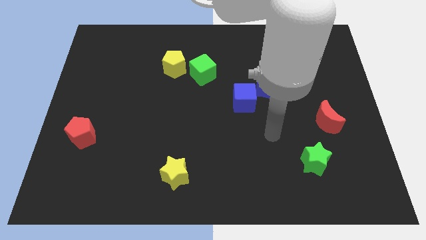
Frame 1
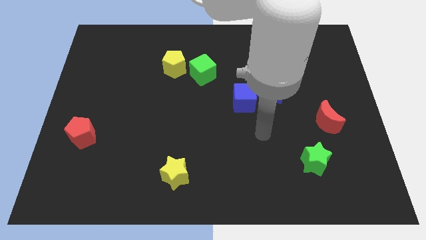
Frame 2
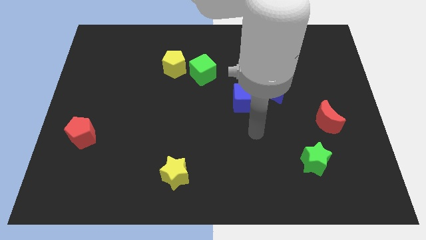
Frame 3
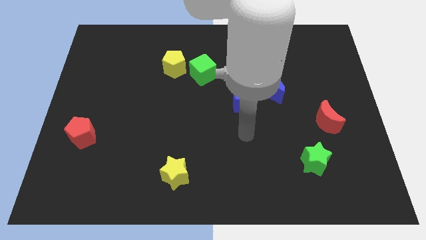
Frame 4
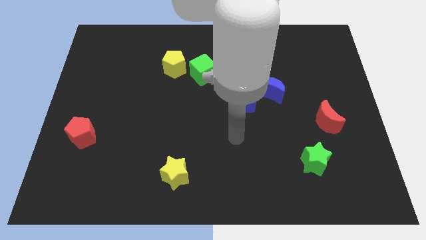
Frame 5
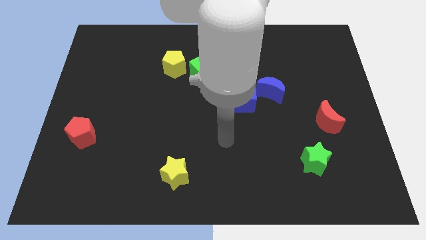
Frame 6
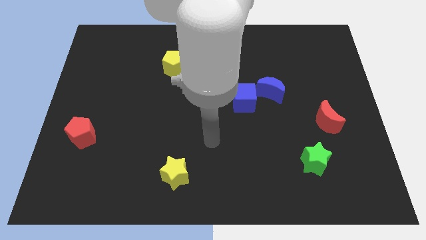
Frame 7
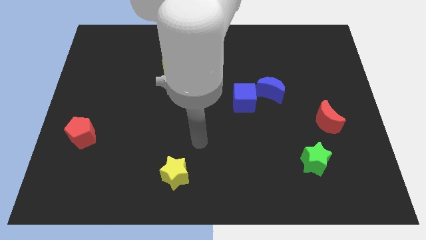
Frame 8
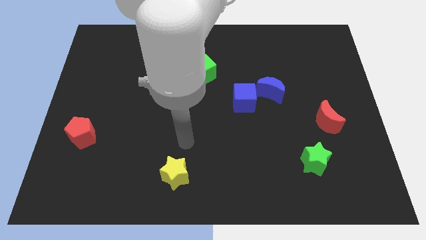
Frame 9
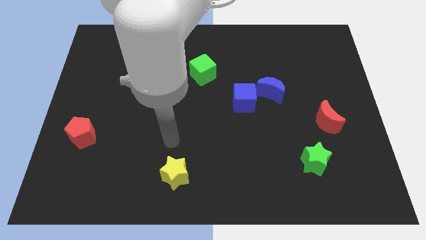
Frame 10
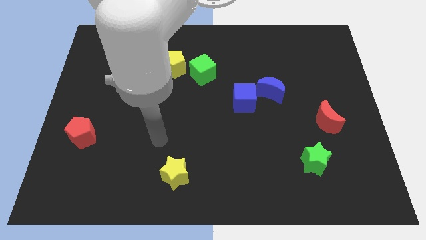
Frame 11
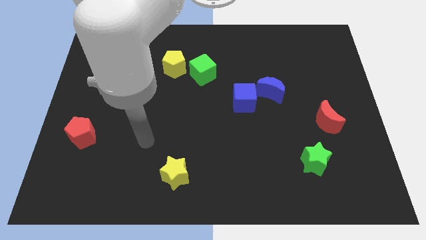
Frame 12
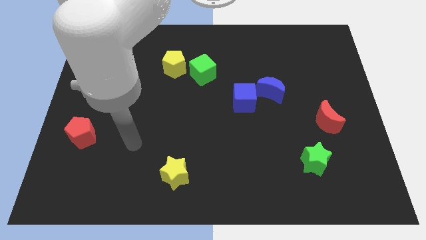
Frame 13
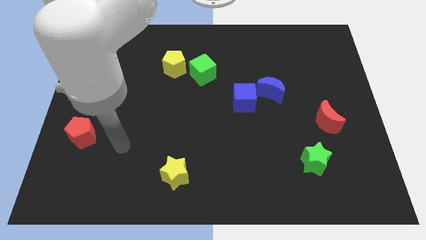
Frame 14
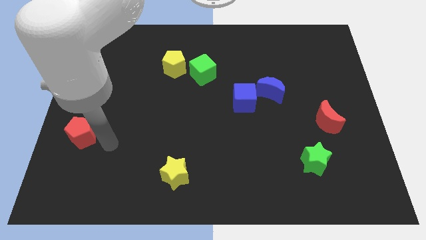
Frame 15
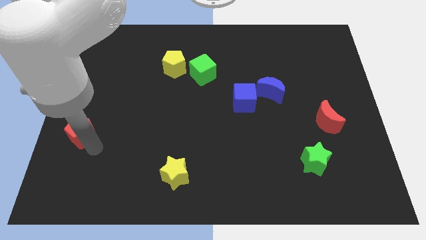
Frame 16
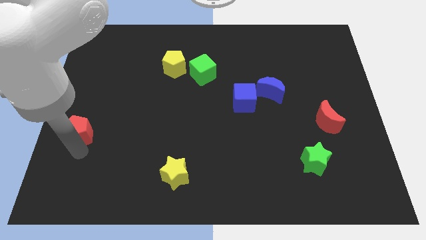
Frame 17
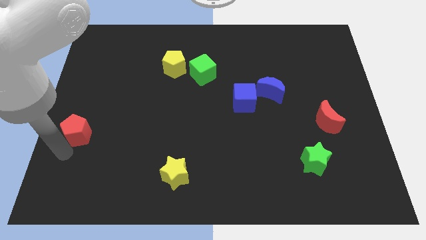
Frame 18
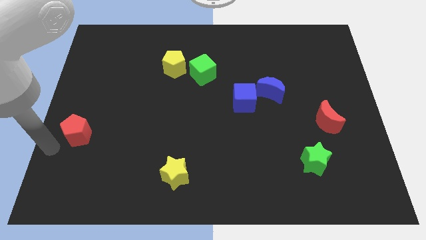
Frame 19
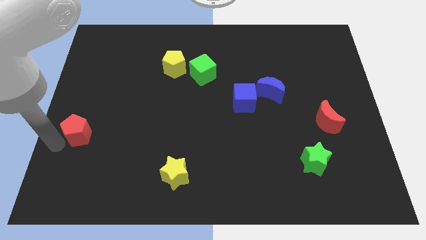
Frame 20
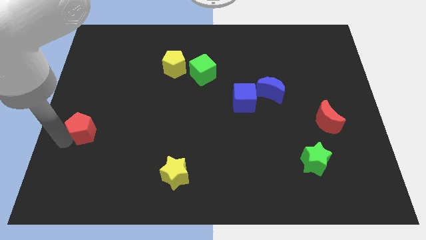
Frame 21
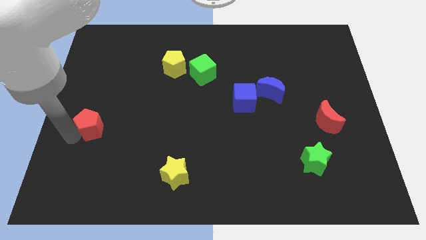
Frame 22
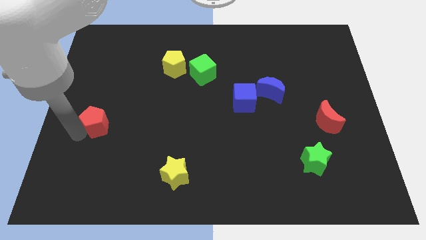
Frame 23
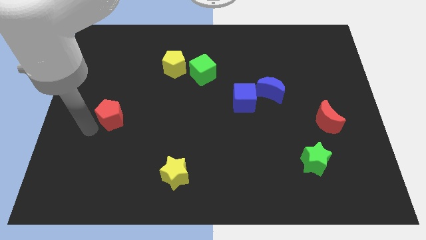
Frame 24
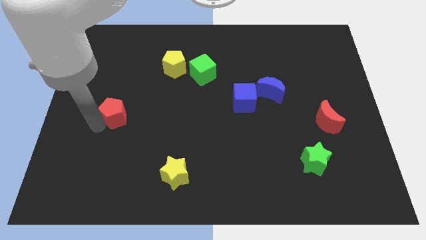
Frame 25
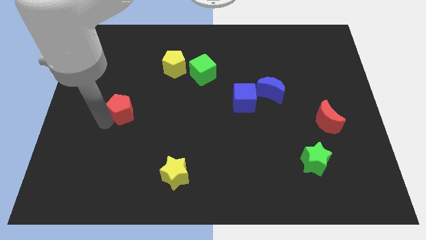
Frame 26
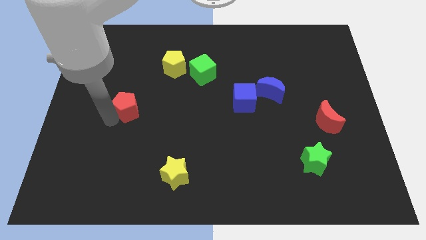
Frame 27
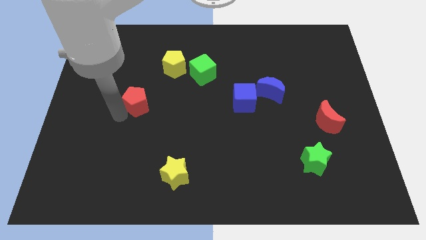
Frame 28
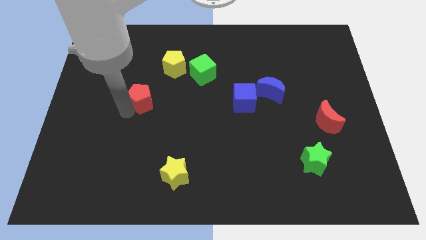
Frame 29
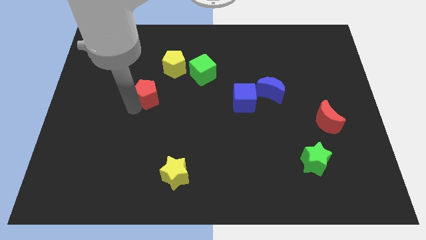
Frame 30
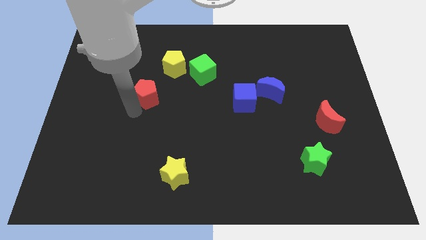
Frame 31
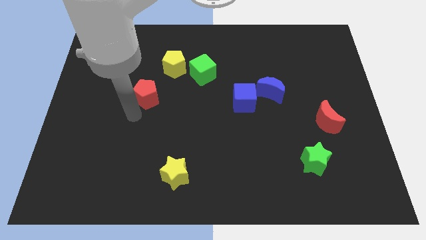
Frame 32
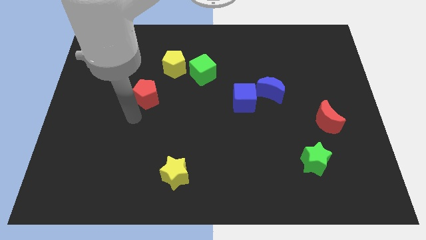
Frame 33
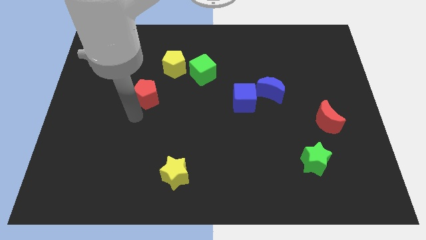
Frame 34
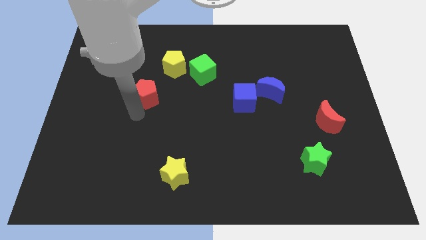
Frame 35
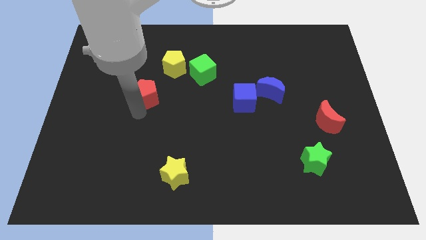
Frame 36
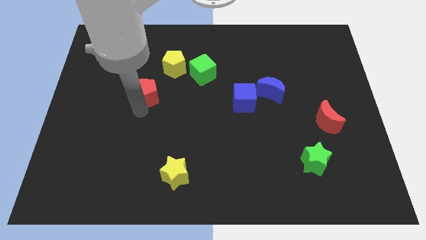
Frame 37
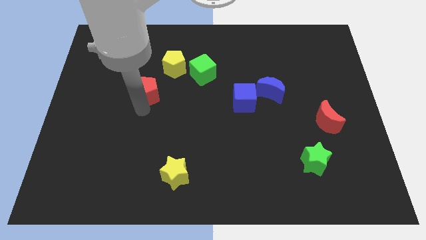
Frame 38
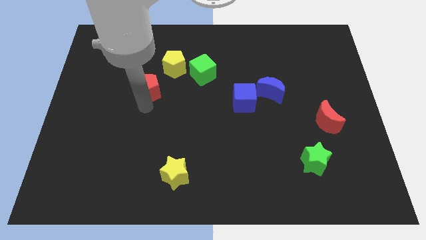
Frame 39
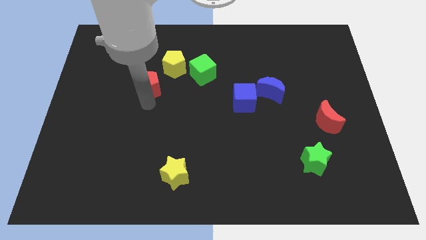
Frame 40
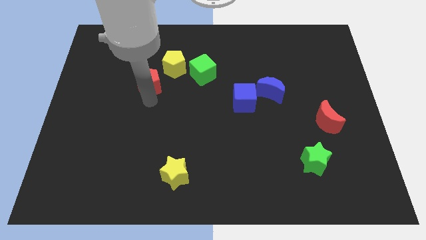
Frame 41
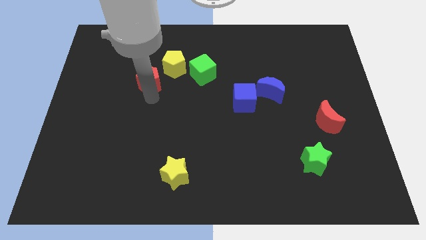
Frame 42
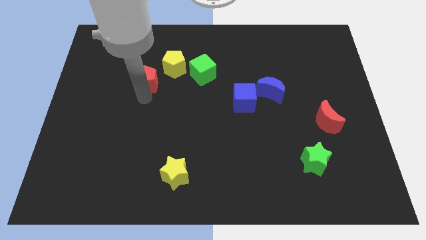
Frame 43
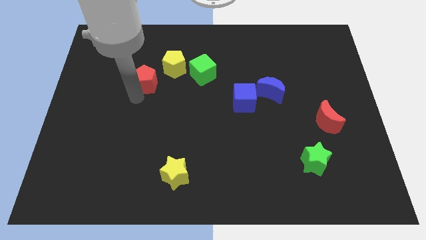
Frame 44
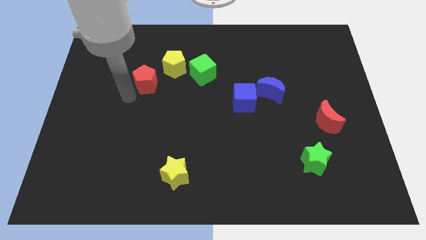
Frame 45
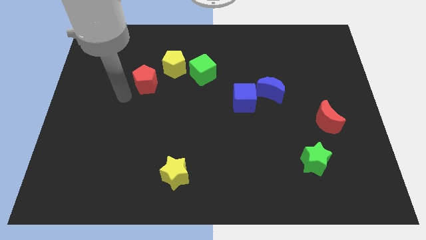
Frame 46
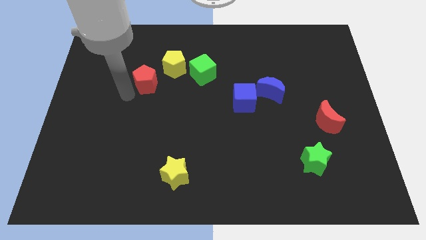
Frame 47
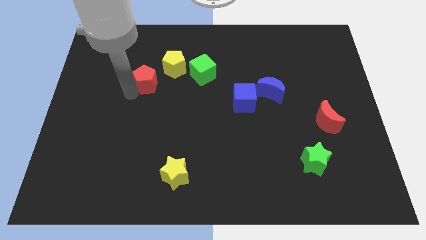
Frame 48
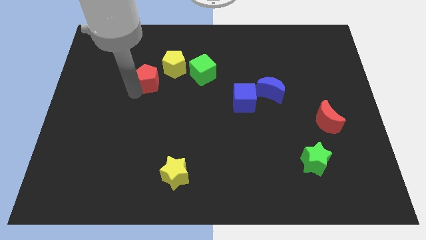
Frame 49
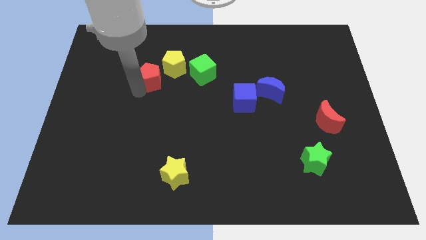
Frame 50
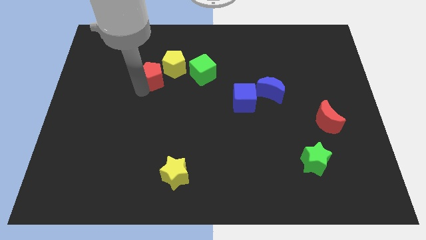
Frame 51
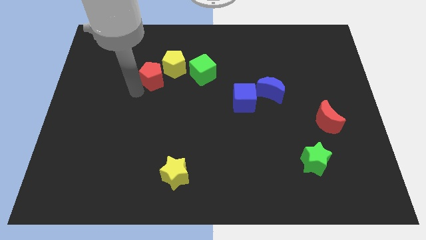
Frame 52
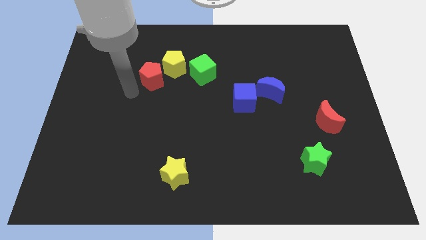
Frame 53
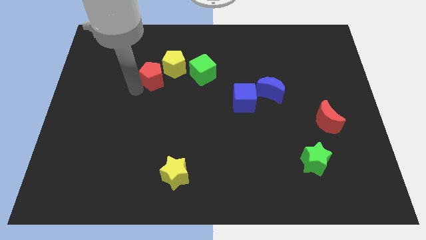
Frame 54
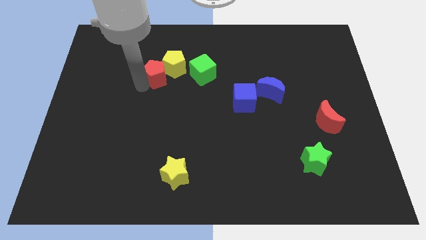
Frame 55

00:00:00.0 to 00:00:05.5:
push the red pentagon close to the yellow pentagon

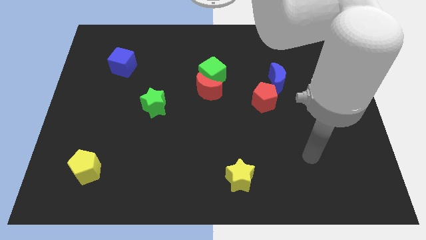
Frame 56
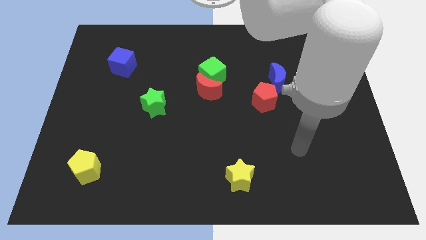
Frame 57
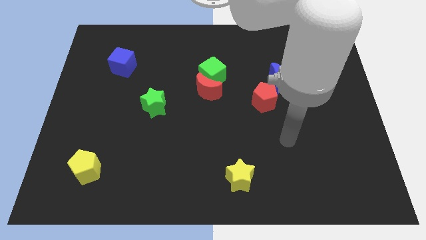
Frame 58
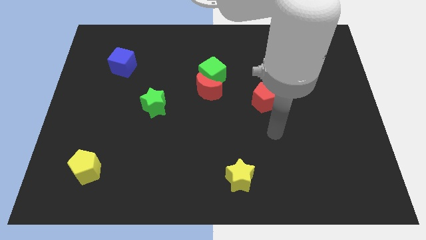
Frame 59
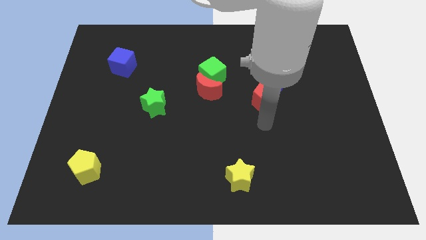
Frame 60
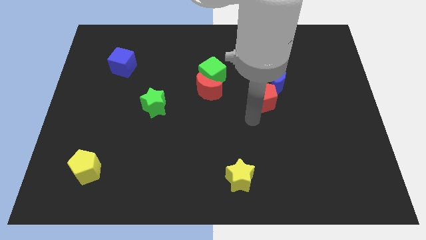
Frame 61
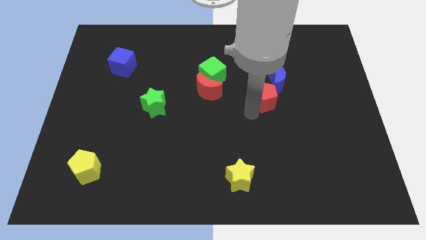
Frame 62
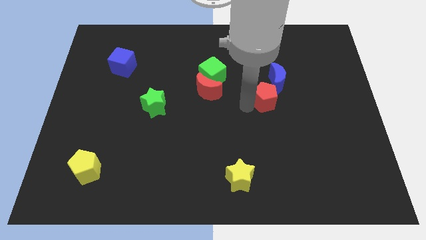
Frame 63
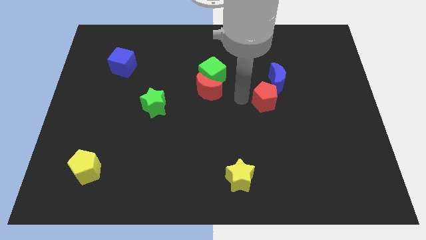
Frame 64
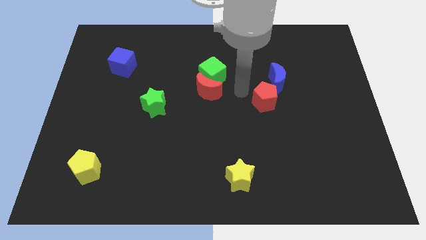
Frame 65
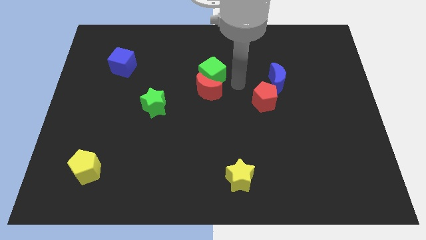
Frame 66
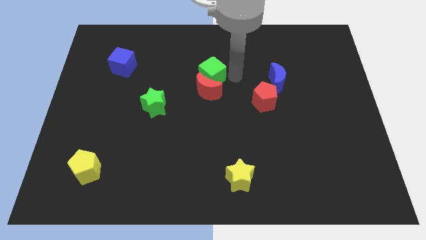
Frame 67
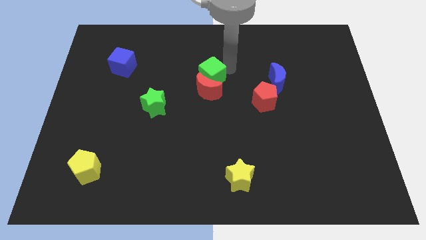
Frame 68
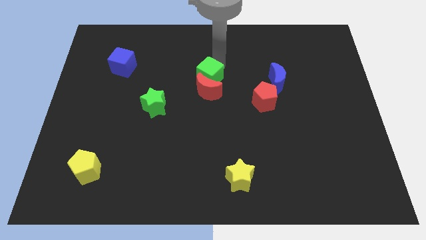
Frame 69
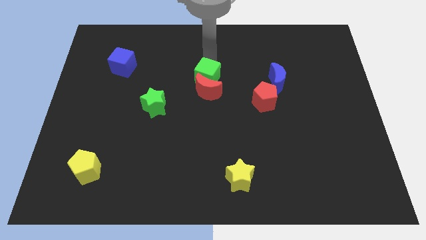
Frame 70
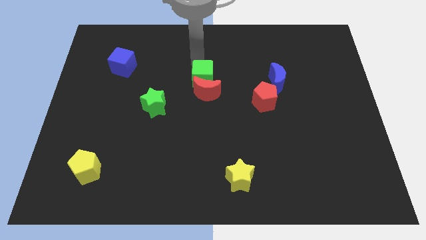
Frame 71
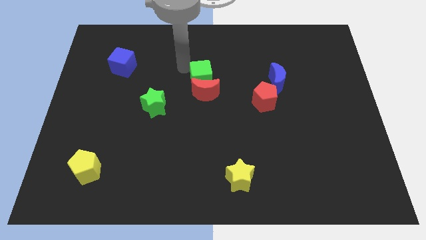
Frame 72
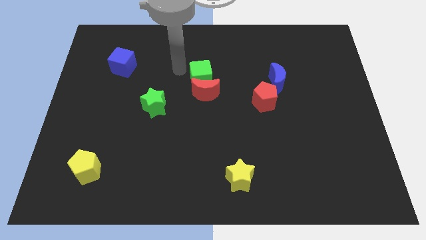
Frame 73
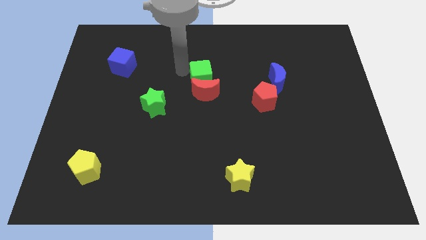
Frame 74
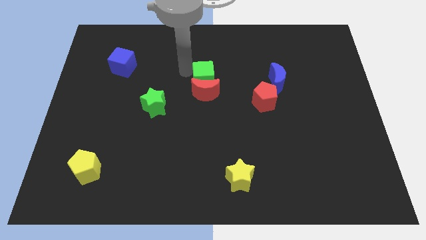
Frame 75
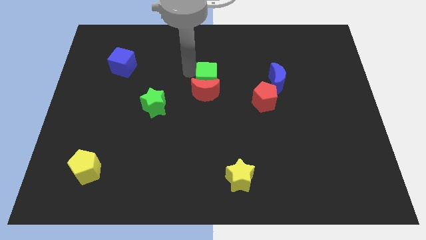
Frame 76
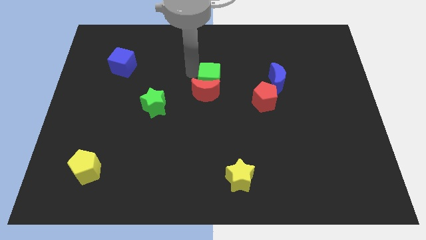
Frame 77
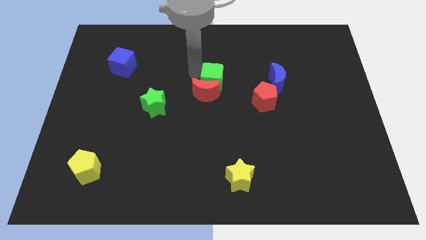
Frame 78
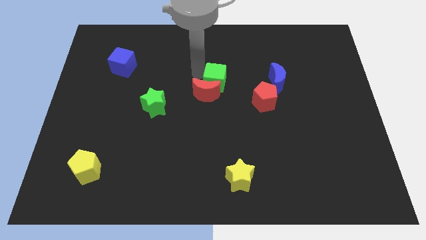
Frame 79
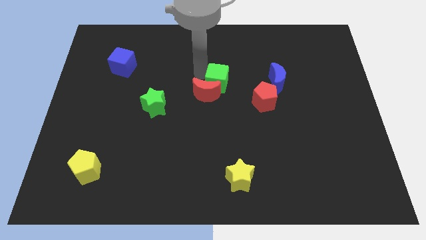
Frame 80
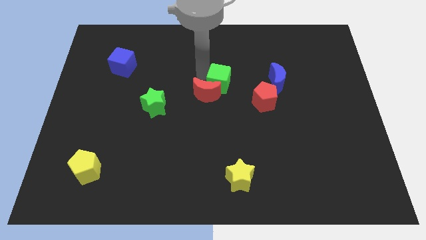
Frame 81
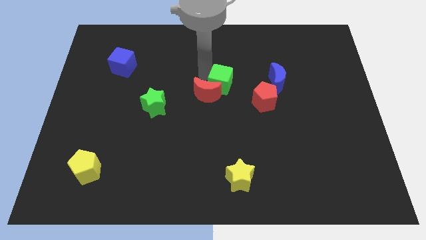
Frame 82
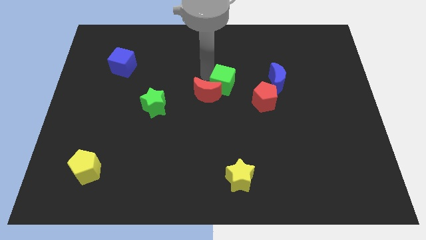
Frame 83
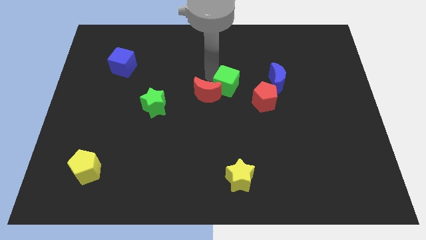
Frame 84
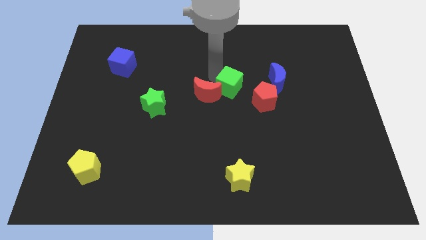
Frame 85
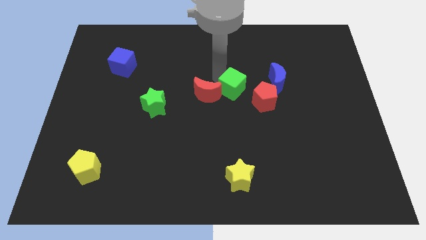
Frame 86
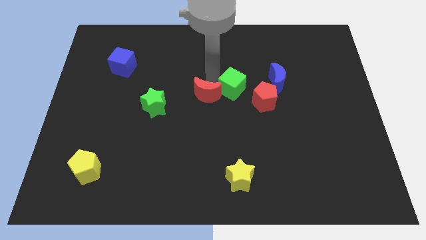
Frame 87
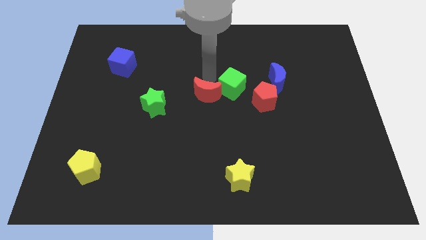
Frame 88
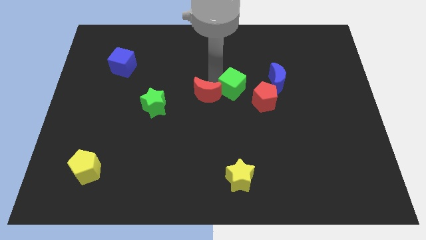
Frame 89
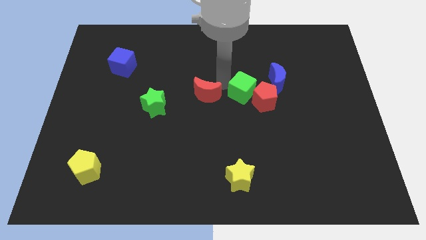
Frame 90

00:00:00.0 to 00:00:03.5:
push the green cube to the red pentagon
